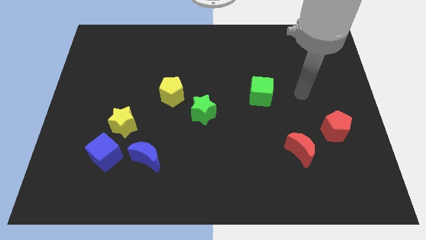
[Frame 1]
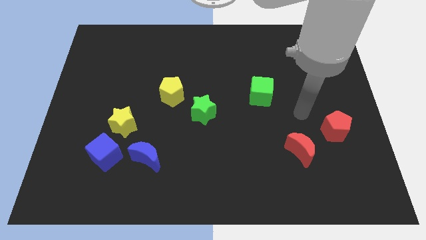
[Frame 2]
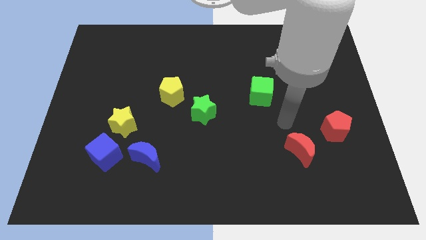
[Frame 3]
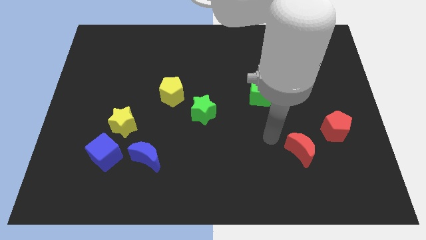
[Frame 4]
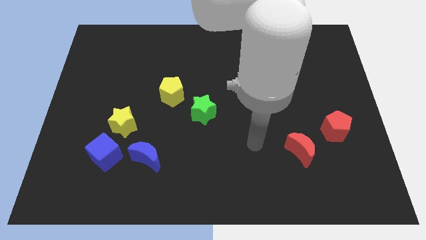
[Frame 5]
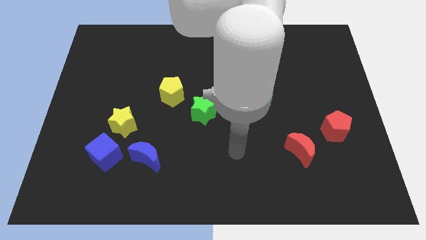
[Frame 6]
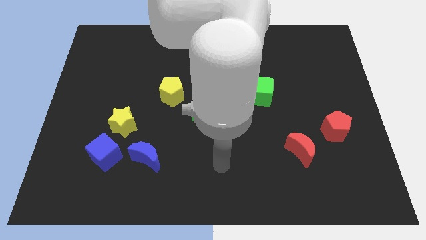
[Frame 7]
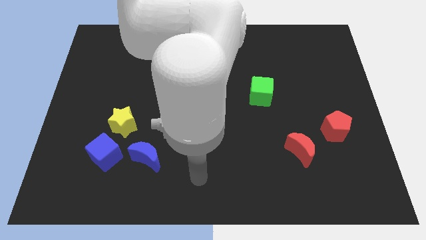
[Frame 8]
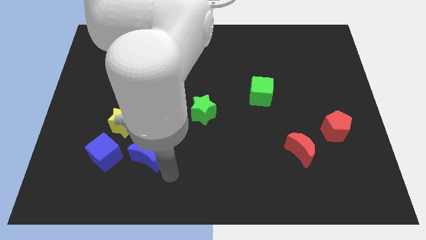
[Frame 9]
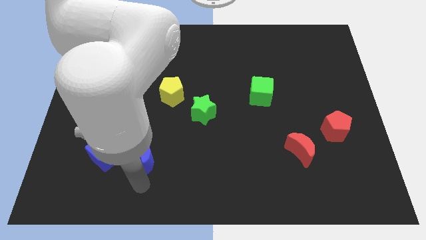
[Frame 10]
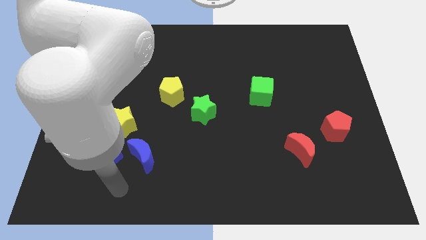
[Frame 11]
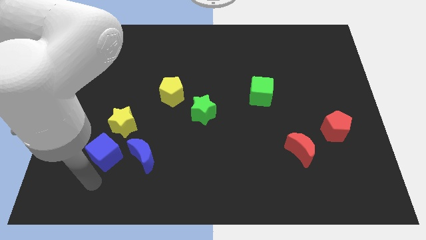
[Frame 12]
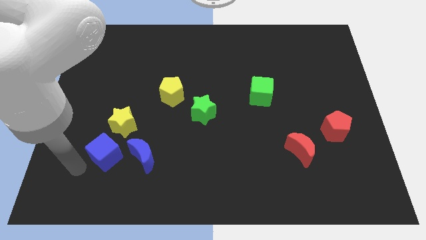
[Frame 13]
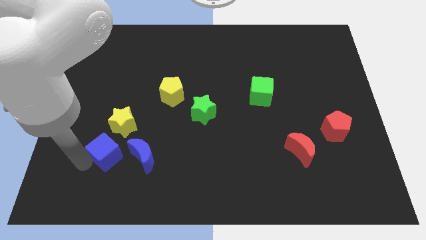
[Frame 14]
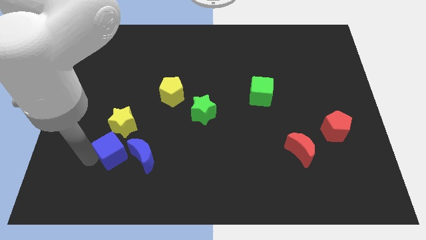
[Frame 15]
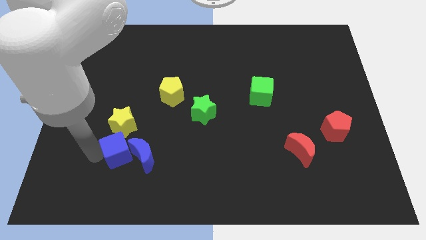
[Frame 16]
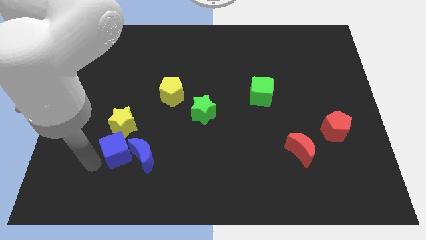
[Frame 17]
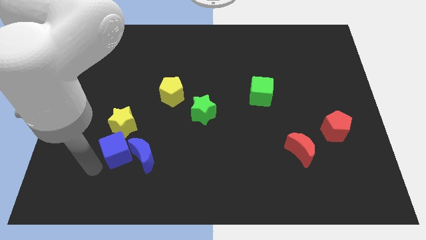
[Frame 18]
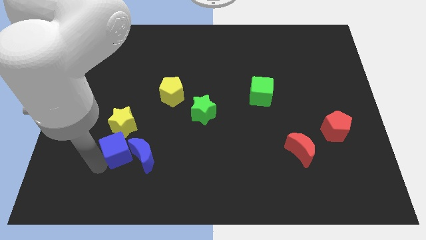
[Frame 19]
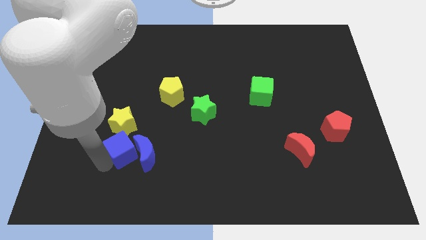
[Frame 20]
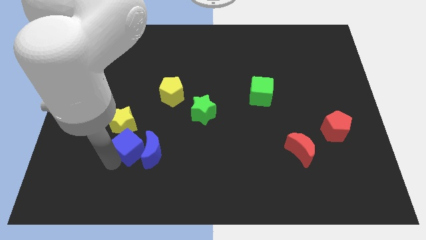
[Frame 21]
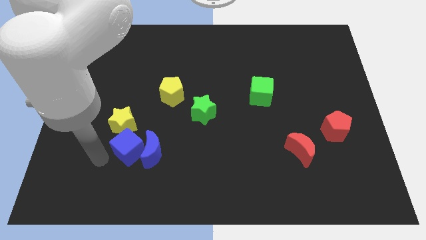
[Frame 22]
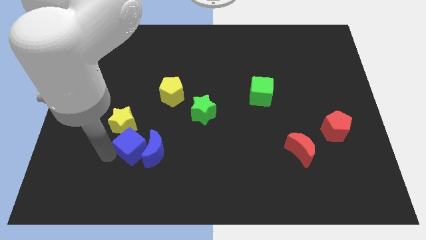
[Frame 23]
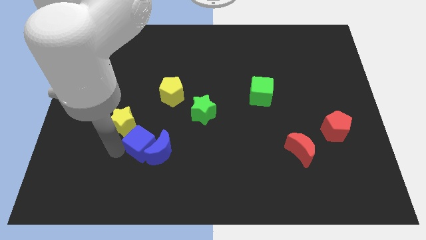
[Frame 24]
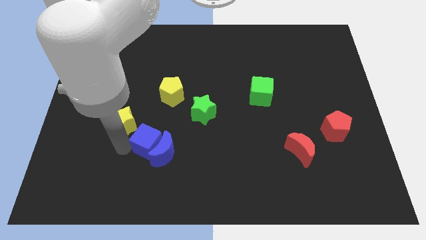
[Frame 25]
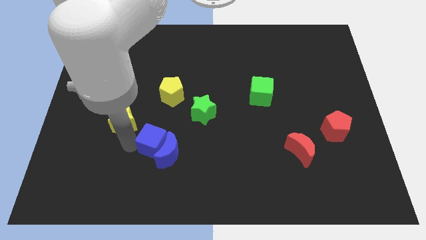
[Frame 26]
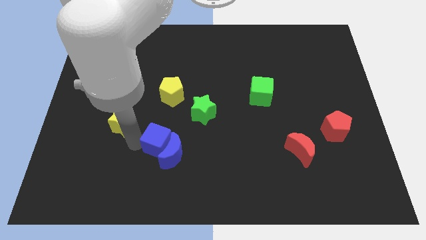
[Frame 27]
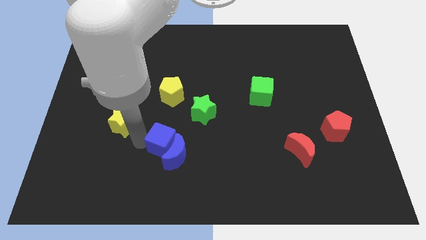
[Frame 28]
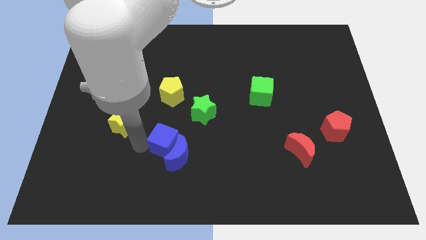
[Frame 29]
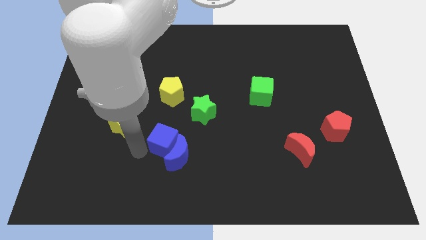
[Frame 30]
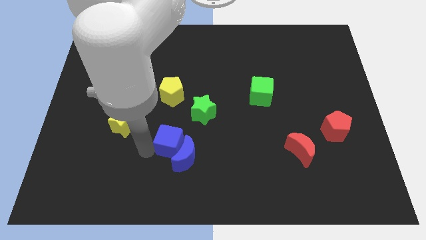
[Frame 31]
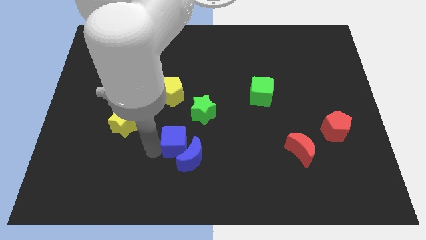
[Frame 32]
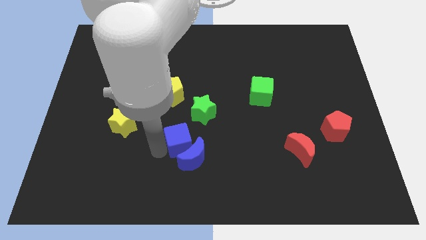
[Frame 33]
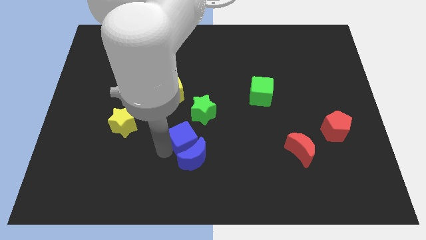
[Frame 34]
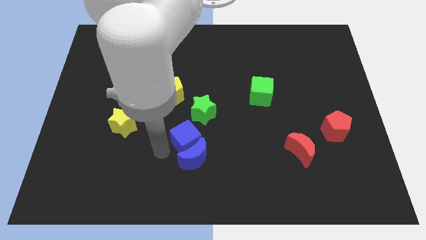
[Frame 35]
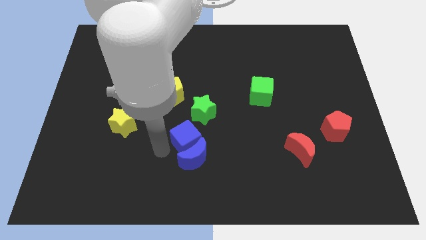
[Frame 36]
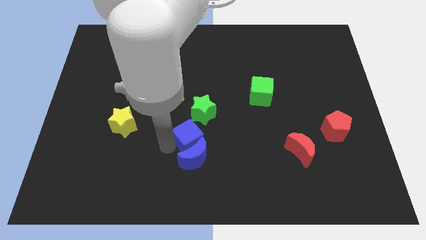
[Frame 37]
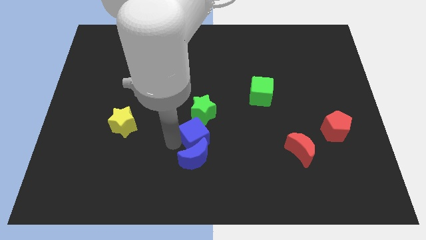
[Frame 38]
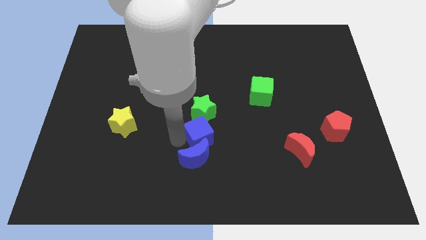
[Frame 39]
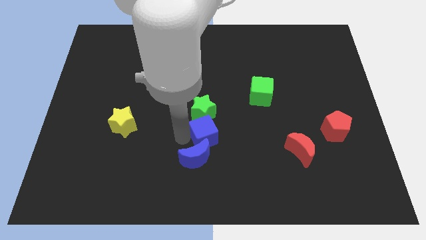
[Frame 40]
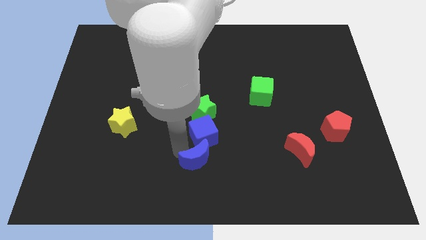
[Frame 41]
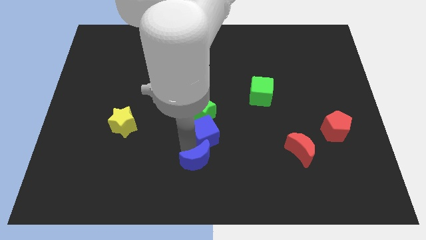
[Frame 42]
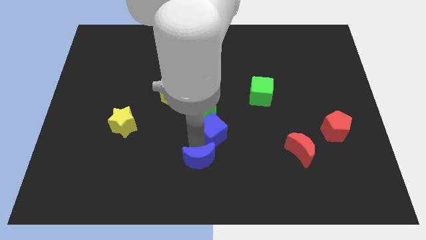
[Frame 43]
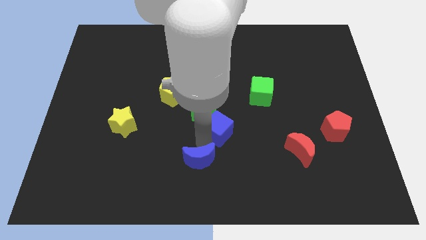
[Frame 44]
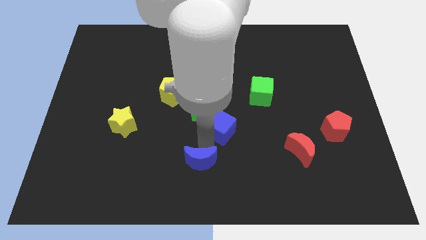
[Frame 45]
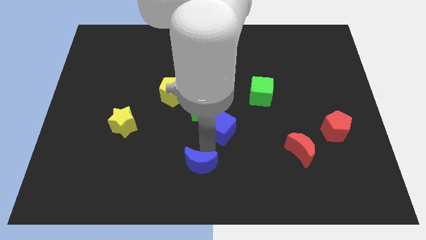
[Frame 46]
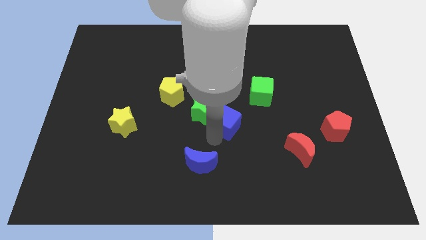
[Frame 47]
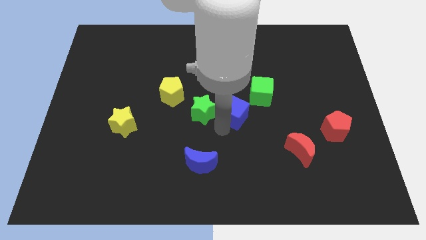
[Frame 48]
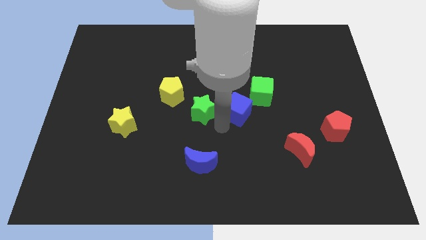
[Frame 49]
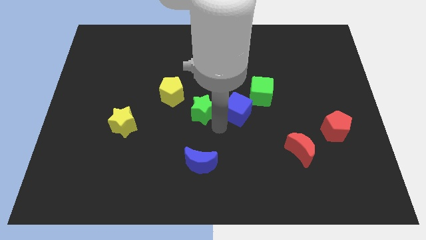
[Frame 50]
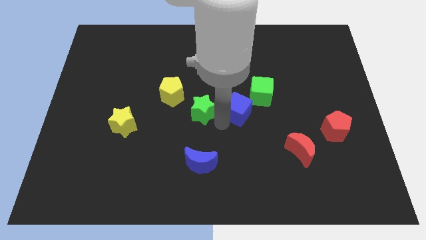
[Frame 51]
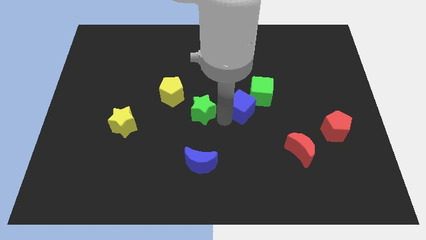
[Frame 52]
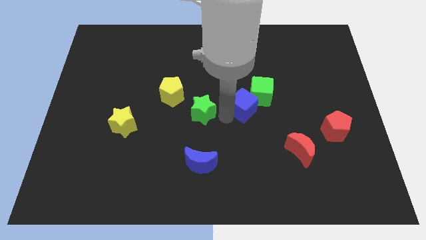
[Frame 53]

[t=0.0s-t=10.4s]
move the blue cube to the green cube

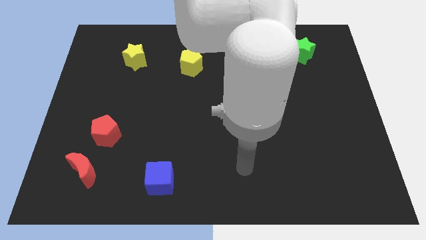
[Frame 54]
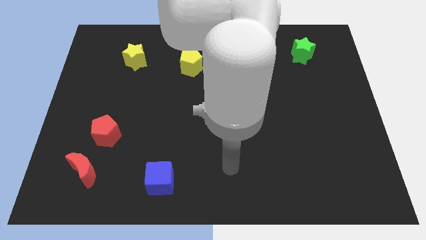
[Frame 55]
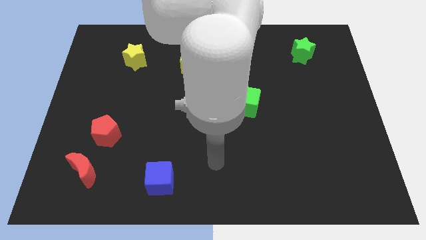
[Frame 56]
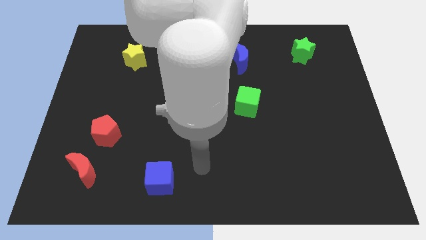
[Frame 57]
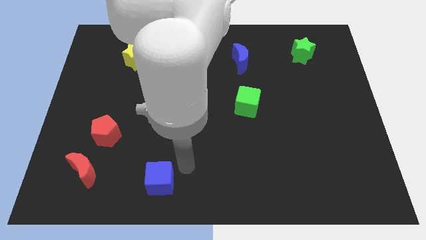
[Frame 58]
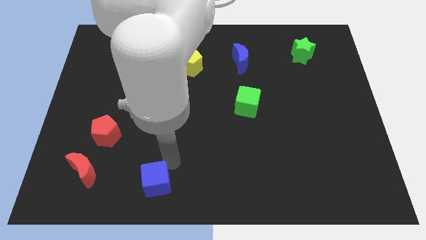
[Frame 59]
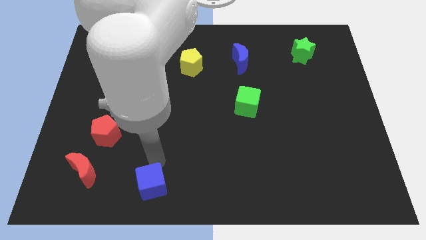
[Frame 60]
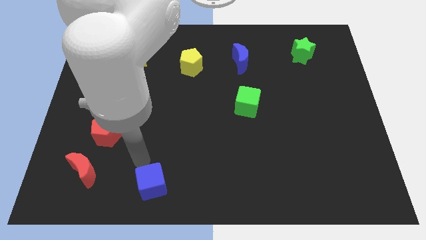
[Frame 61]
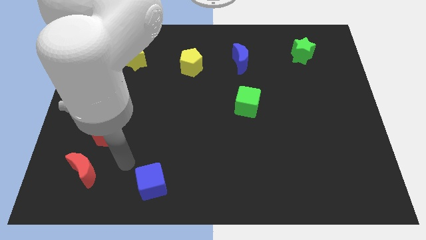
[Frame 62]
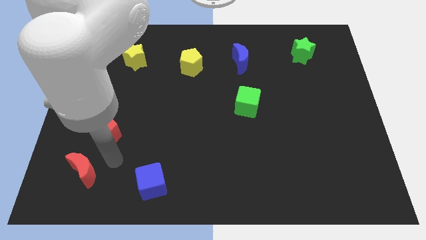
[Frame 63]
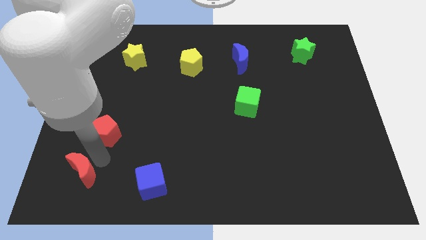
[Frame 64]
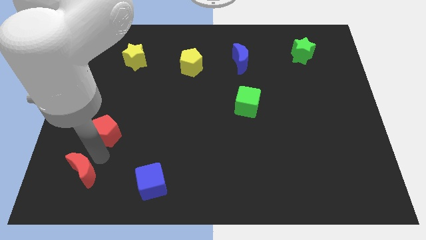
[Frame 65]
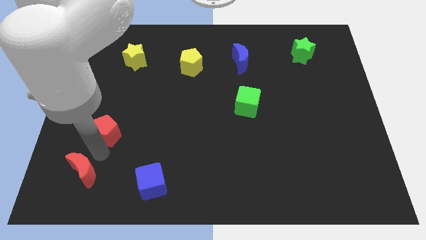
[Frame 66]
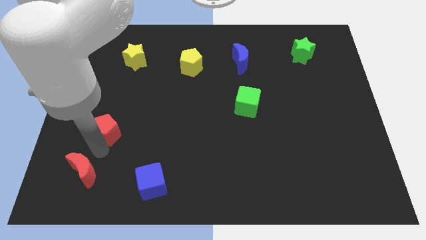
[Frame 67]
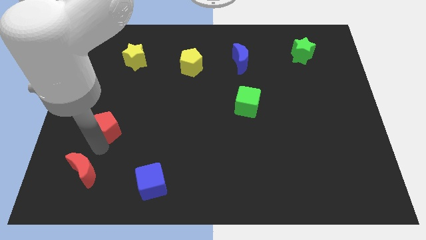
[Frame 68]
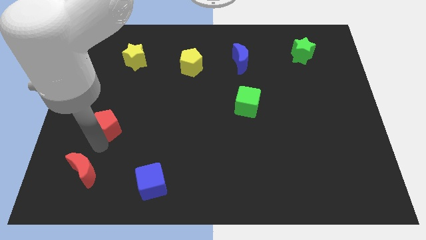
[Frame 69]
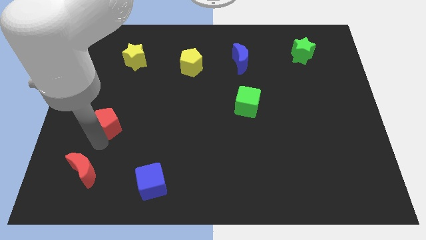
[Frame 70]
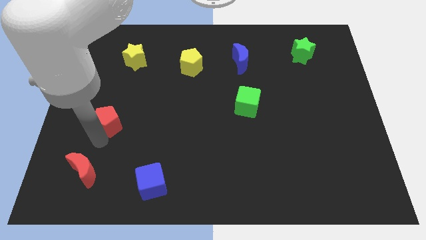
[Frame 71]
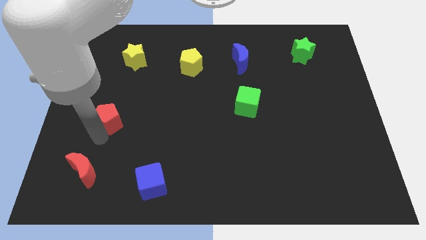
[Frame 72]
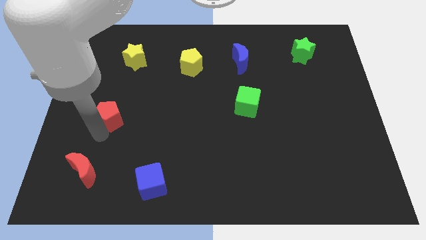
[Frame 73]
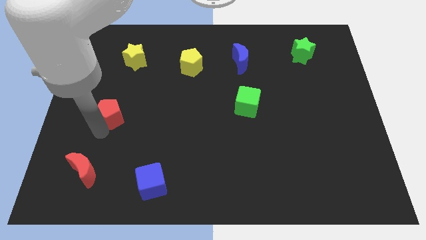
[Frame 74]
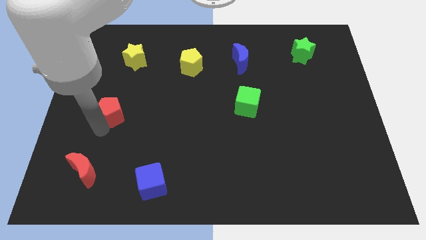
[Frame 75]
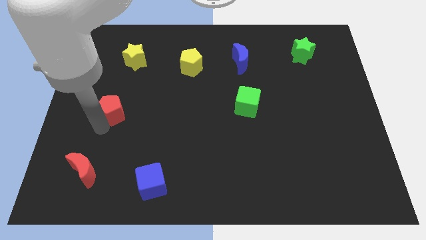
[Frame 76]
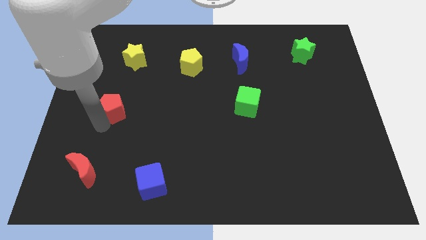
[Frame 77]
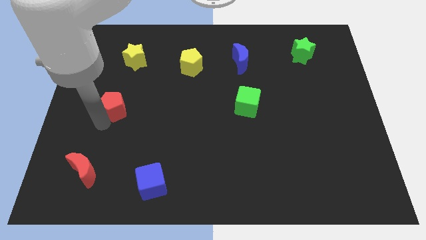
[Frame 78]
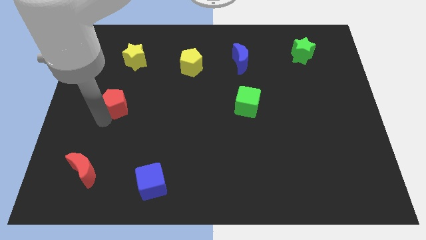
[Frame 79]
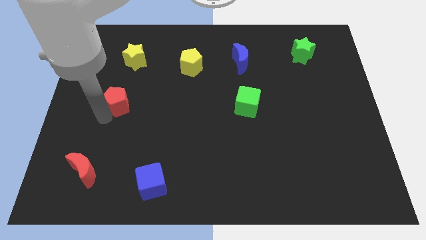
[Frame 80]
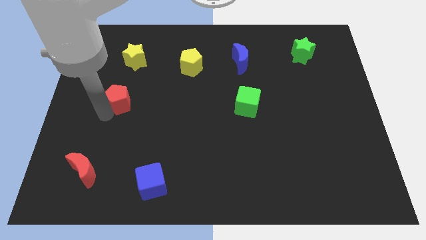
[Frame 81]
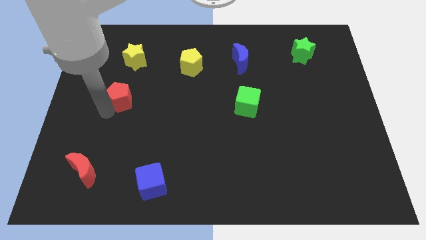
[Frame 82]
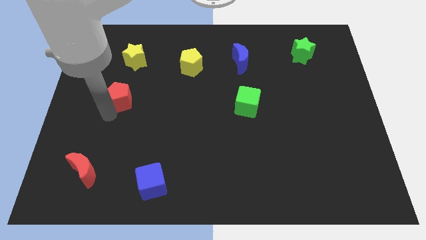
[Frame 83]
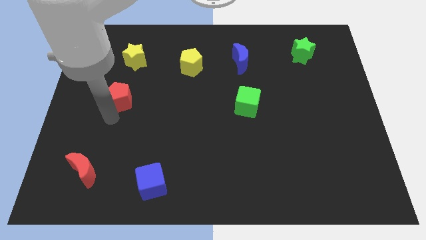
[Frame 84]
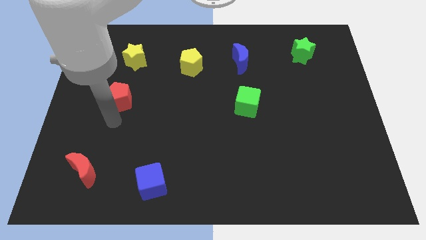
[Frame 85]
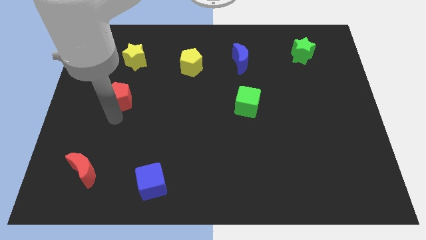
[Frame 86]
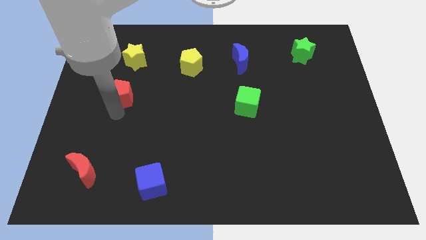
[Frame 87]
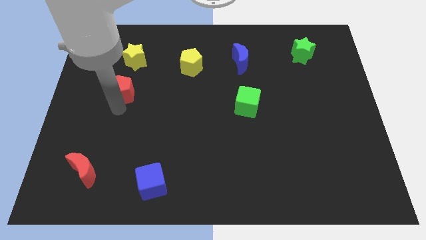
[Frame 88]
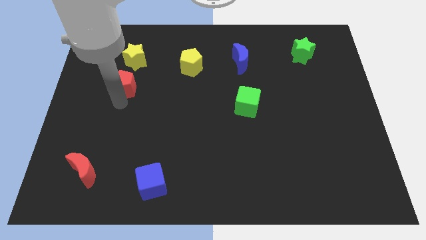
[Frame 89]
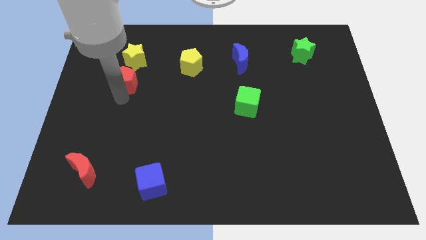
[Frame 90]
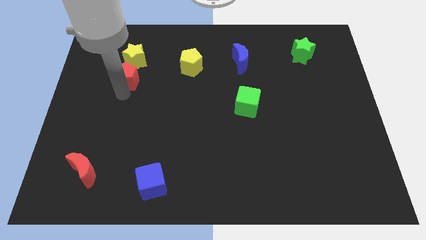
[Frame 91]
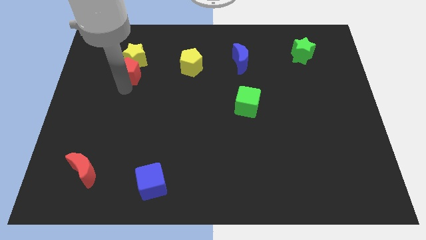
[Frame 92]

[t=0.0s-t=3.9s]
move the red pentagon next to the yellow star
